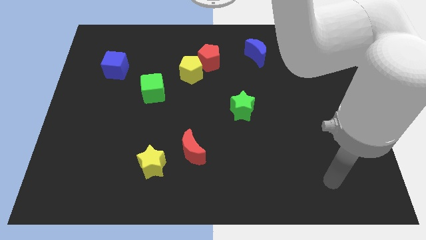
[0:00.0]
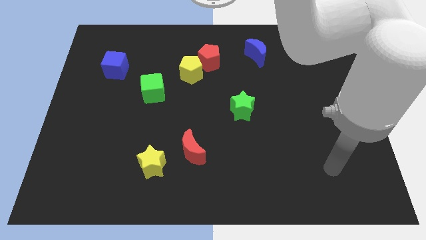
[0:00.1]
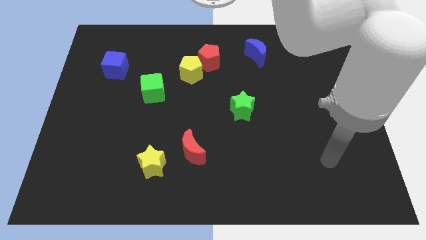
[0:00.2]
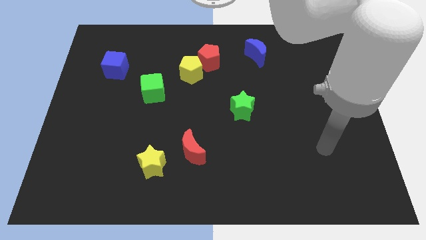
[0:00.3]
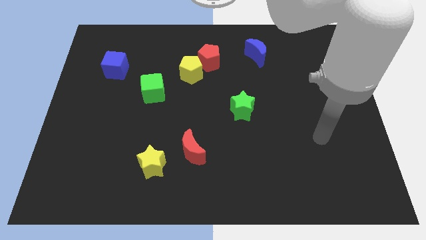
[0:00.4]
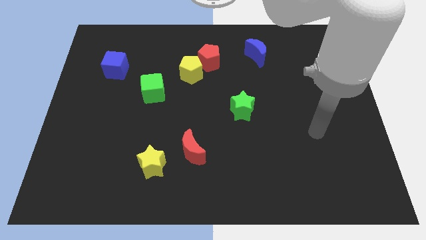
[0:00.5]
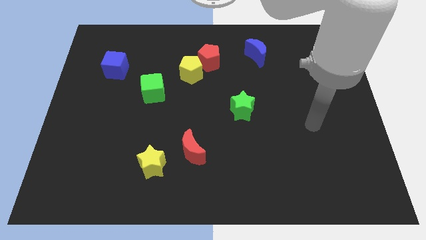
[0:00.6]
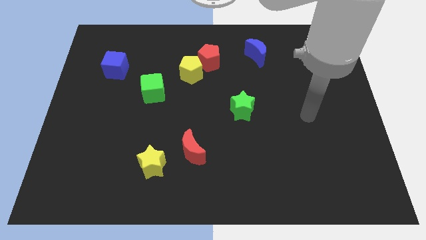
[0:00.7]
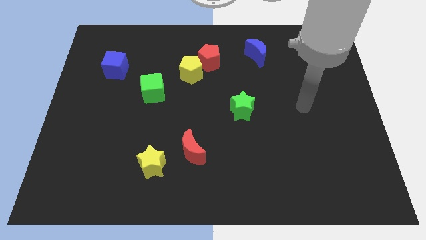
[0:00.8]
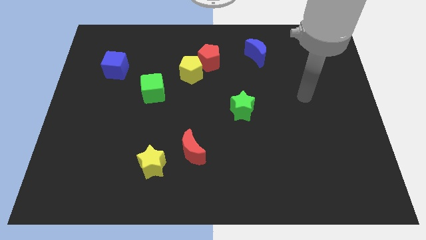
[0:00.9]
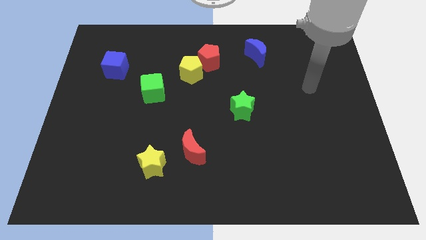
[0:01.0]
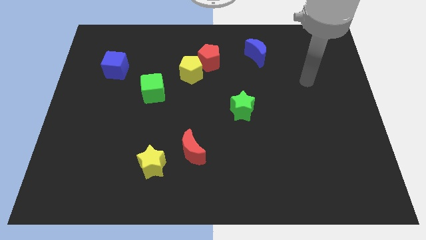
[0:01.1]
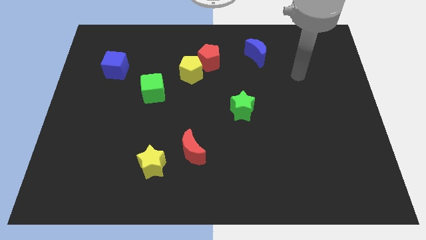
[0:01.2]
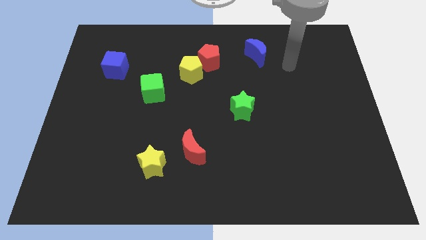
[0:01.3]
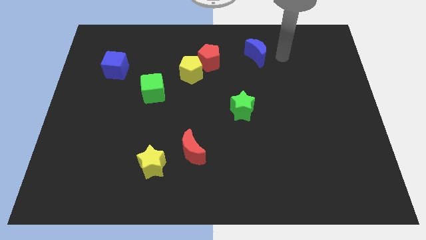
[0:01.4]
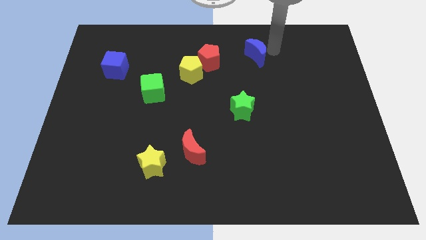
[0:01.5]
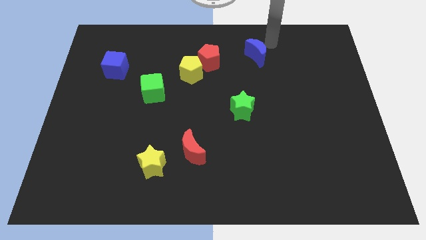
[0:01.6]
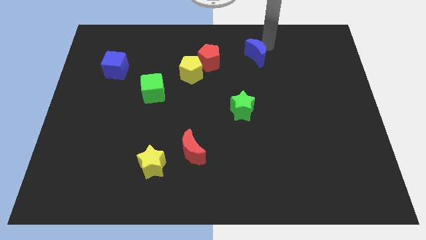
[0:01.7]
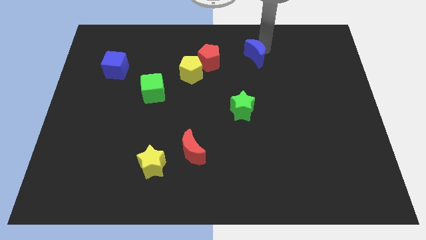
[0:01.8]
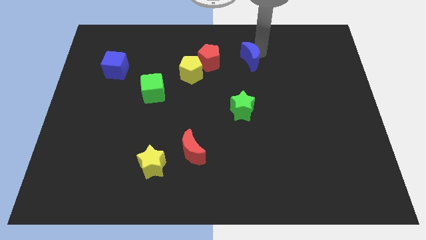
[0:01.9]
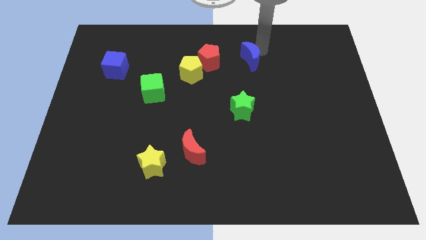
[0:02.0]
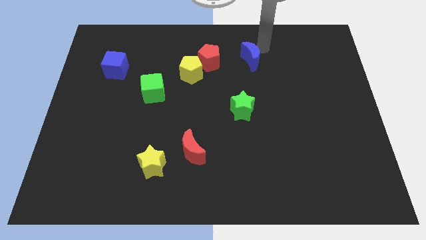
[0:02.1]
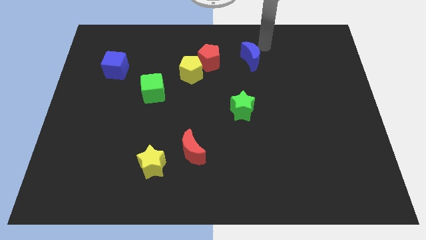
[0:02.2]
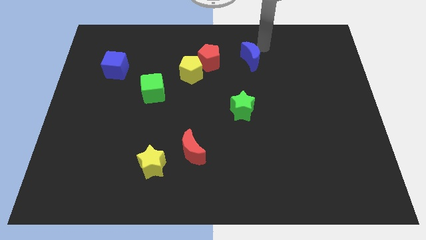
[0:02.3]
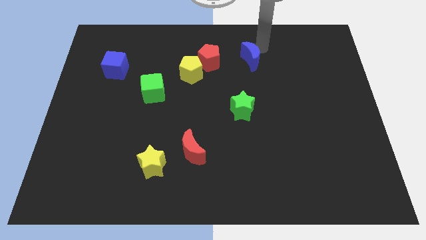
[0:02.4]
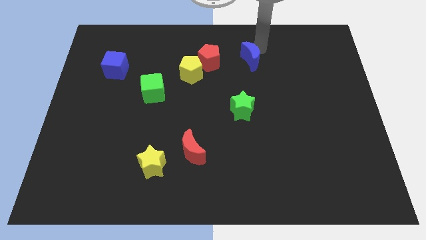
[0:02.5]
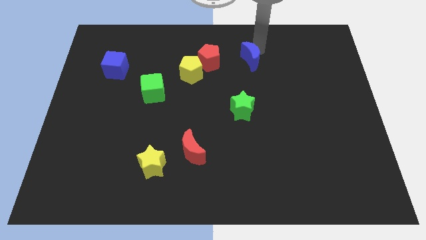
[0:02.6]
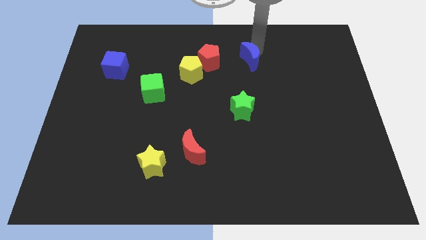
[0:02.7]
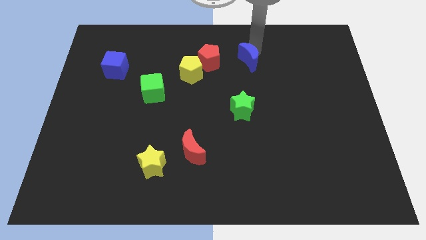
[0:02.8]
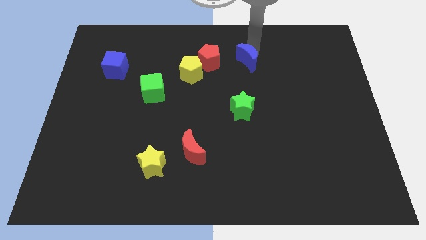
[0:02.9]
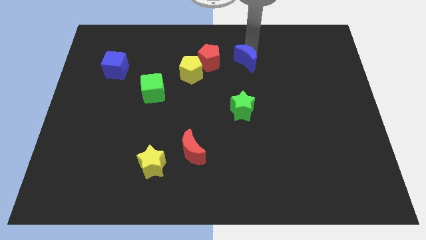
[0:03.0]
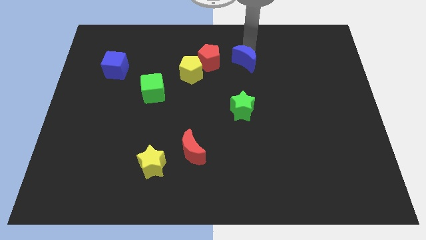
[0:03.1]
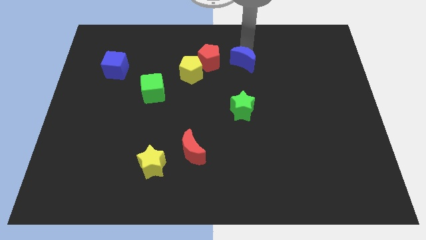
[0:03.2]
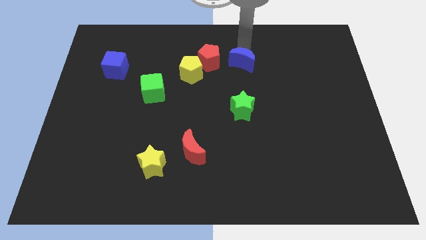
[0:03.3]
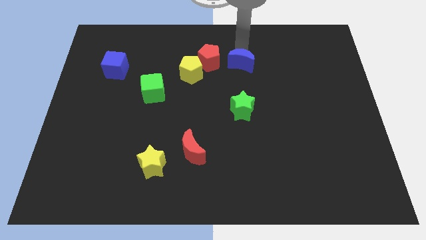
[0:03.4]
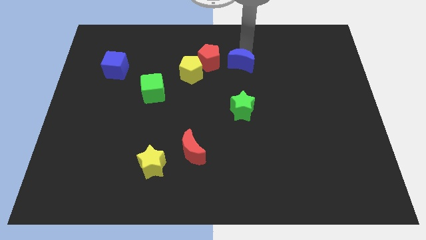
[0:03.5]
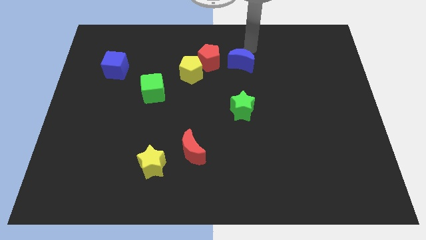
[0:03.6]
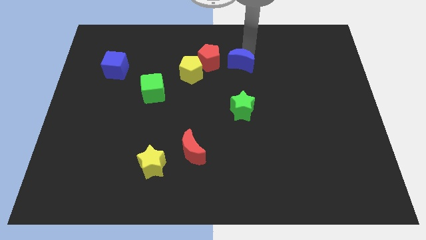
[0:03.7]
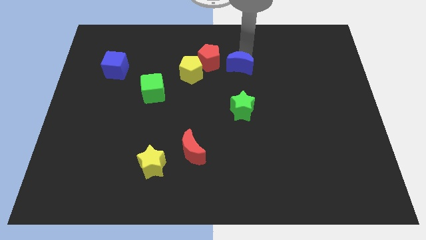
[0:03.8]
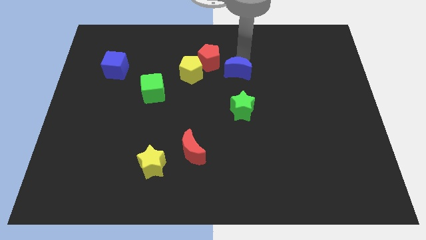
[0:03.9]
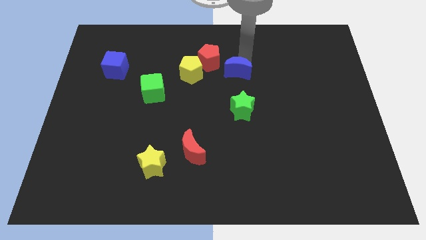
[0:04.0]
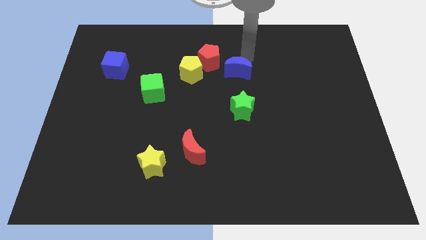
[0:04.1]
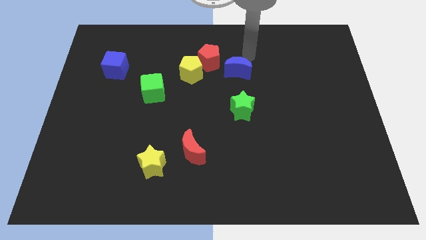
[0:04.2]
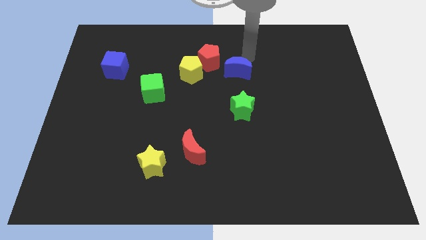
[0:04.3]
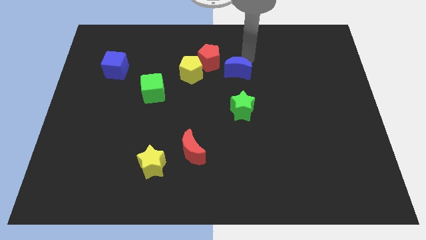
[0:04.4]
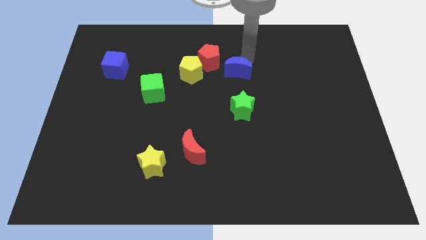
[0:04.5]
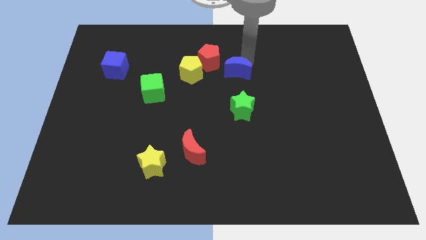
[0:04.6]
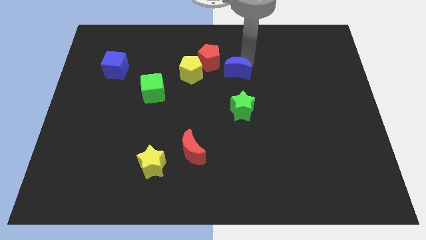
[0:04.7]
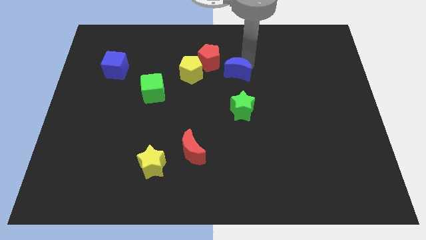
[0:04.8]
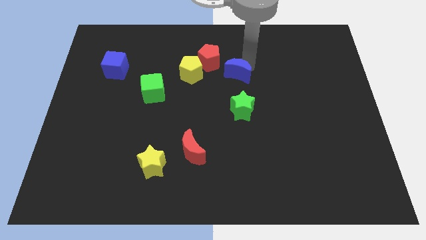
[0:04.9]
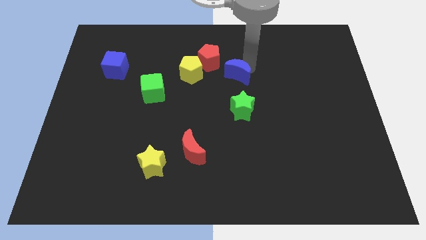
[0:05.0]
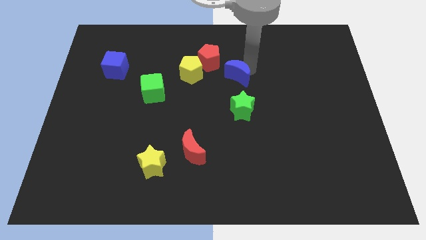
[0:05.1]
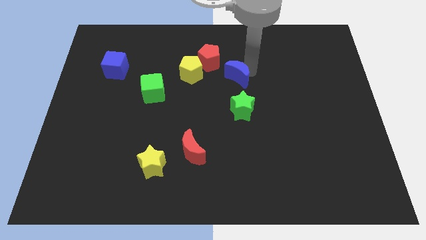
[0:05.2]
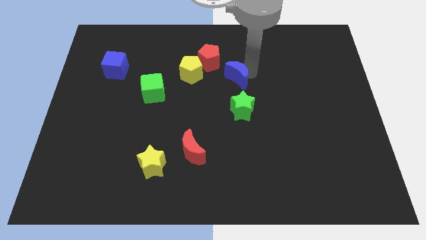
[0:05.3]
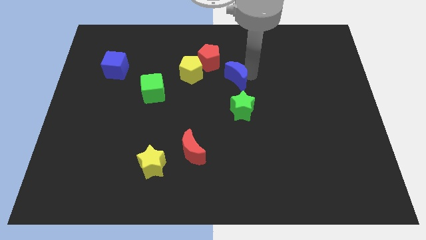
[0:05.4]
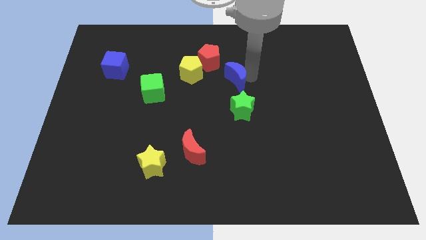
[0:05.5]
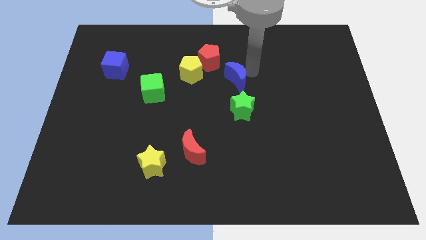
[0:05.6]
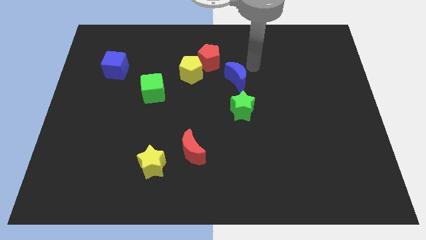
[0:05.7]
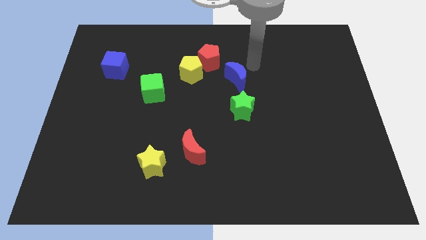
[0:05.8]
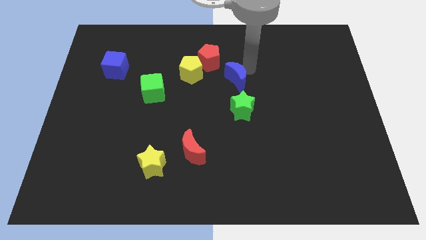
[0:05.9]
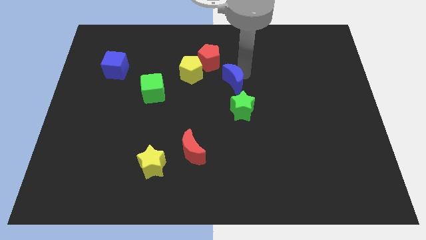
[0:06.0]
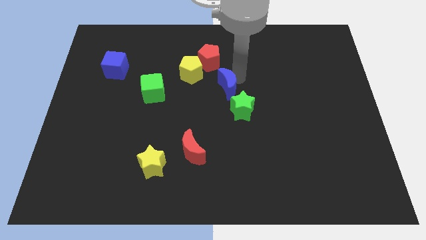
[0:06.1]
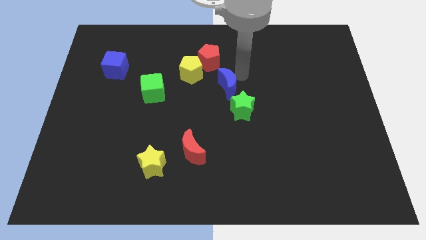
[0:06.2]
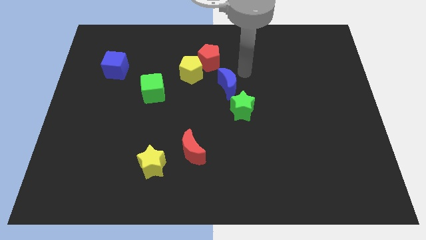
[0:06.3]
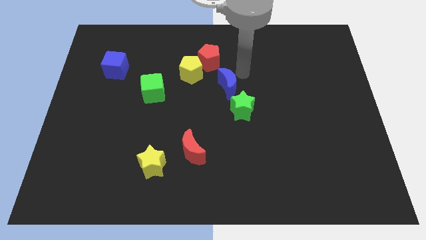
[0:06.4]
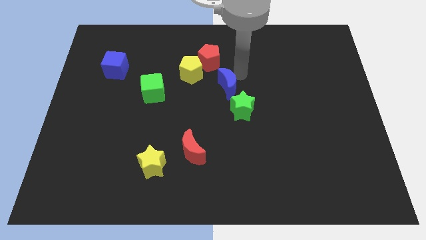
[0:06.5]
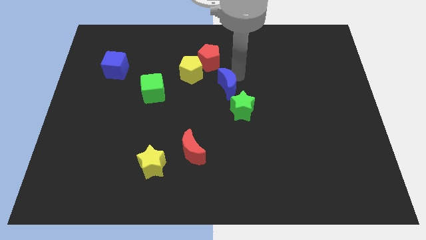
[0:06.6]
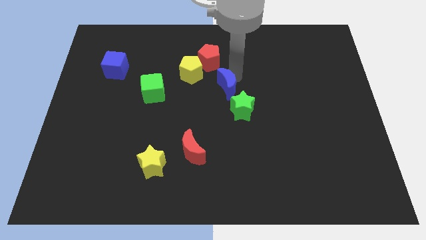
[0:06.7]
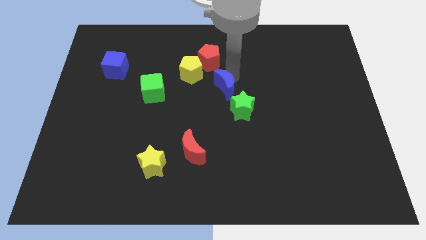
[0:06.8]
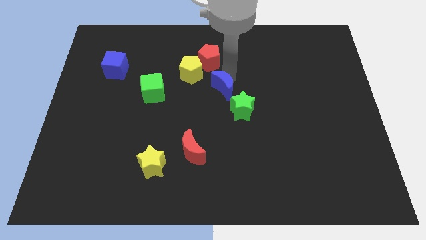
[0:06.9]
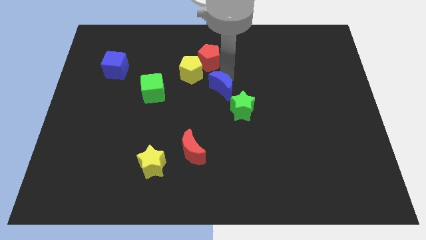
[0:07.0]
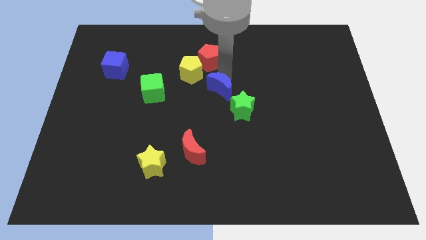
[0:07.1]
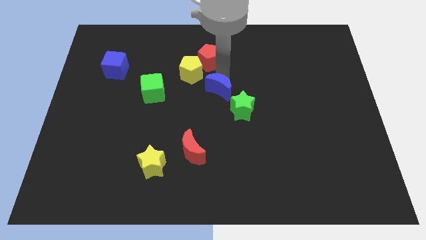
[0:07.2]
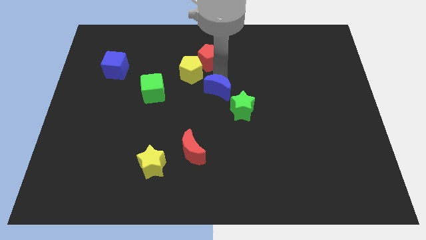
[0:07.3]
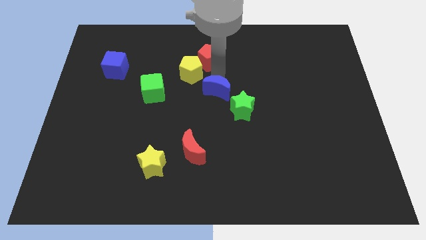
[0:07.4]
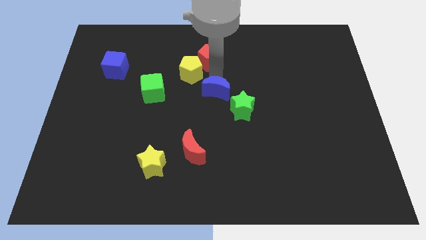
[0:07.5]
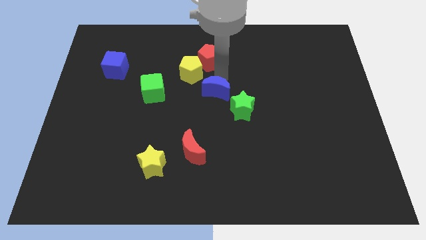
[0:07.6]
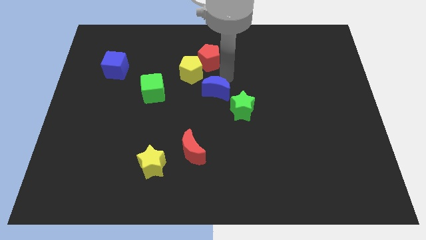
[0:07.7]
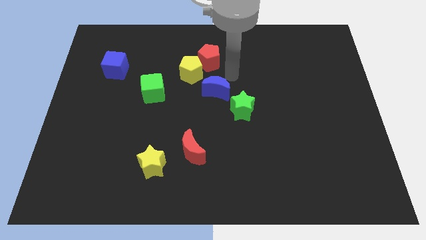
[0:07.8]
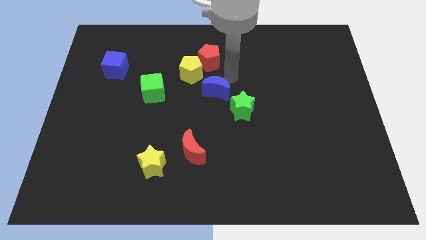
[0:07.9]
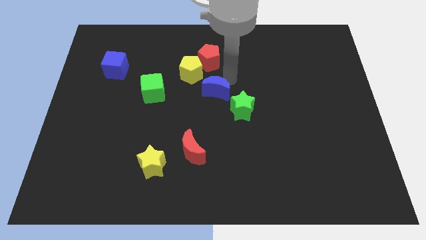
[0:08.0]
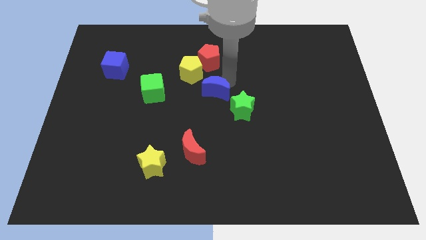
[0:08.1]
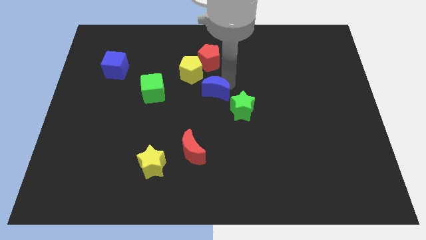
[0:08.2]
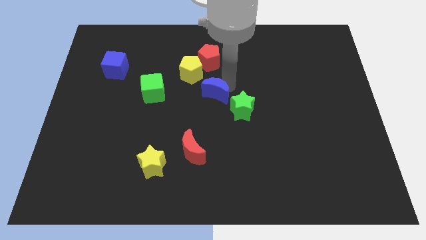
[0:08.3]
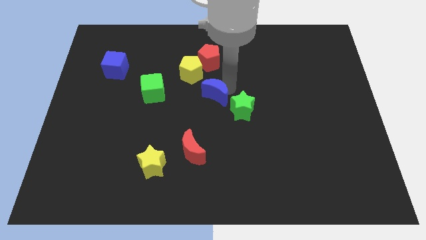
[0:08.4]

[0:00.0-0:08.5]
slide the blue moon left of the green star
